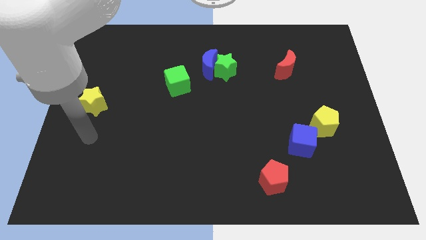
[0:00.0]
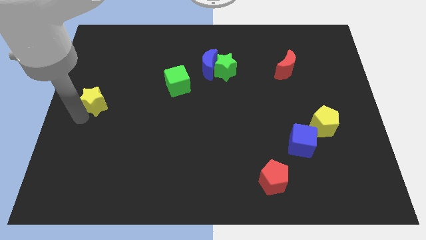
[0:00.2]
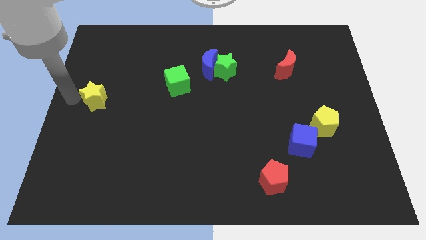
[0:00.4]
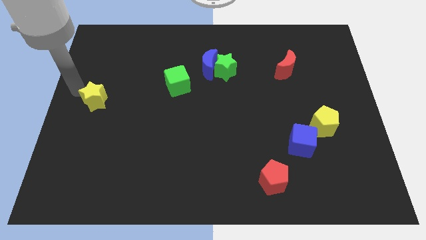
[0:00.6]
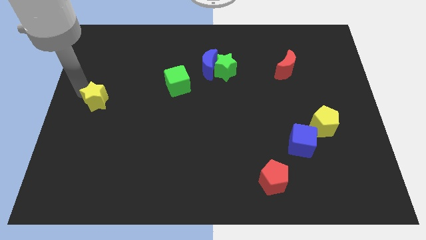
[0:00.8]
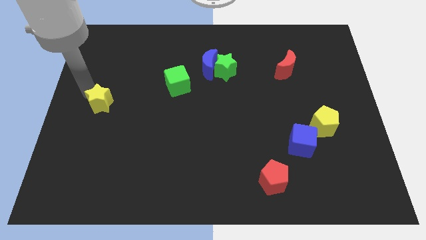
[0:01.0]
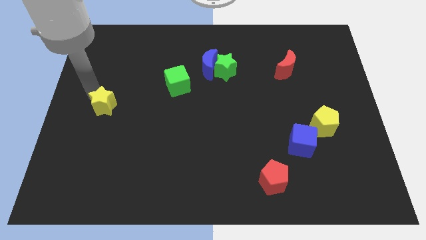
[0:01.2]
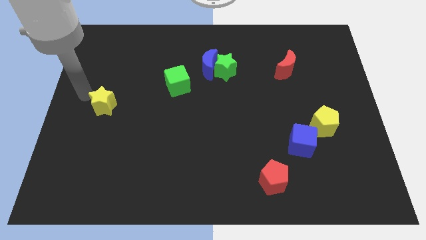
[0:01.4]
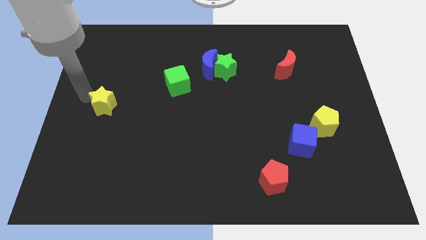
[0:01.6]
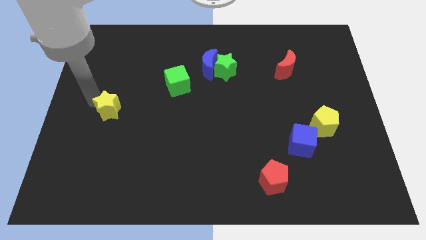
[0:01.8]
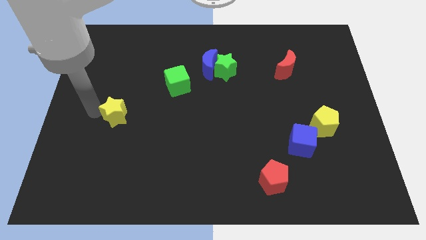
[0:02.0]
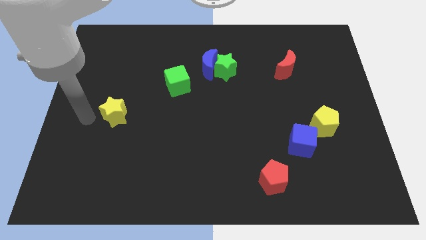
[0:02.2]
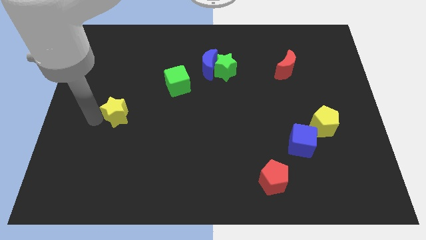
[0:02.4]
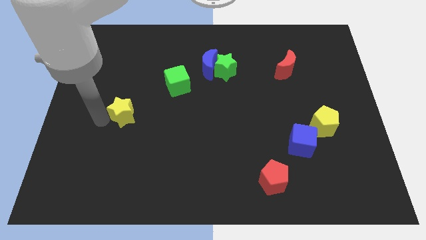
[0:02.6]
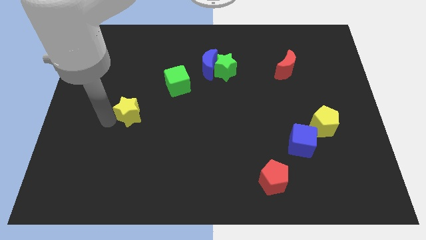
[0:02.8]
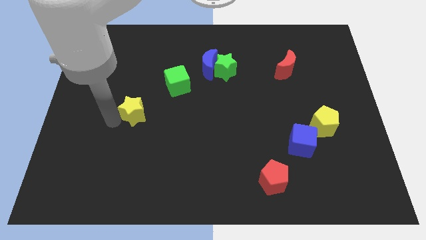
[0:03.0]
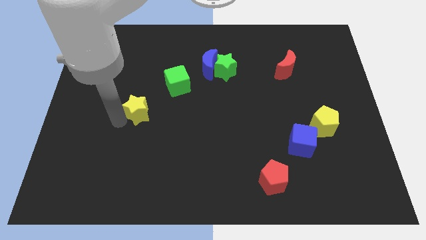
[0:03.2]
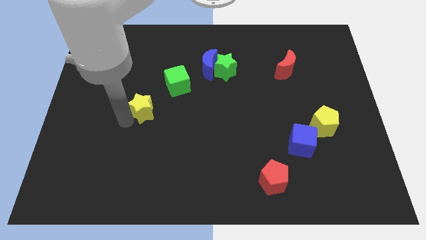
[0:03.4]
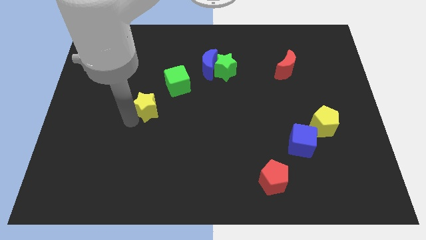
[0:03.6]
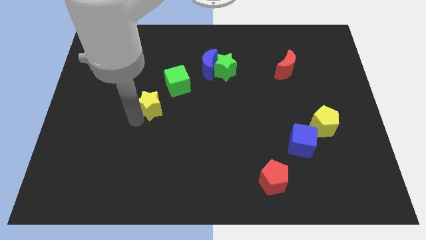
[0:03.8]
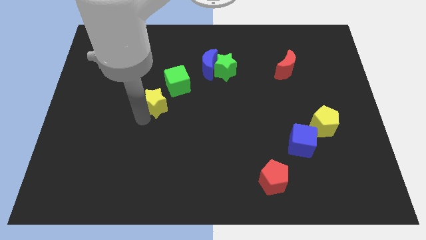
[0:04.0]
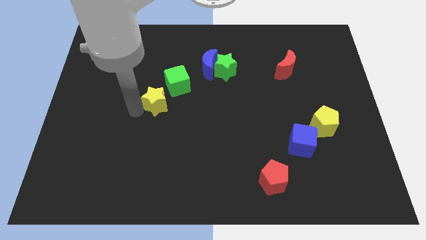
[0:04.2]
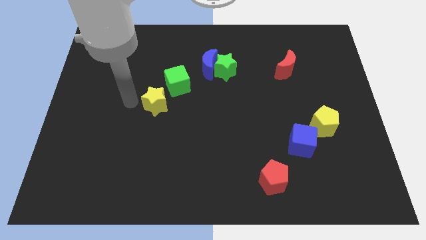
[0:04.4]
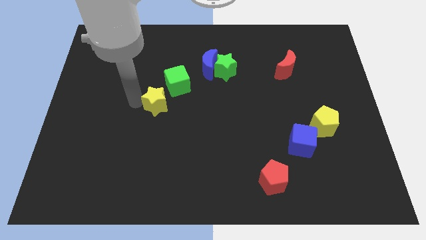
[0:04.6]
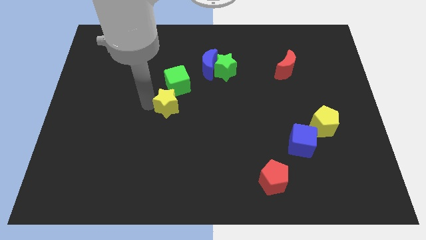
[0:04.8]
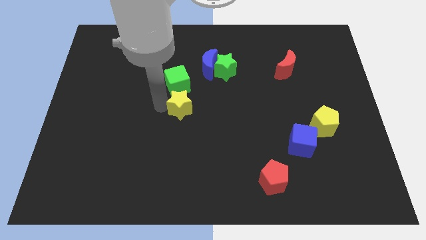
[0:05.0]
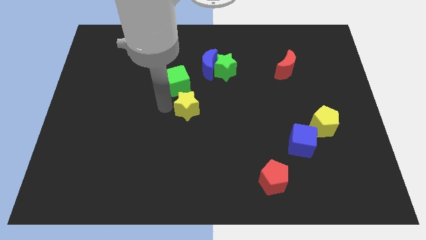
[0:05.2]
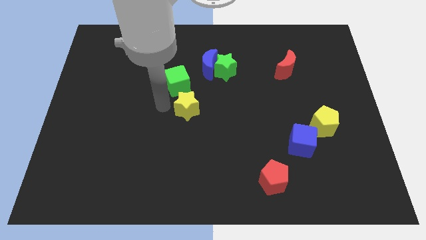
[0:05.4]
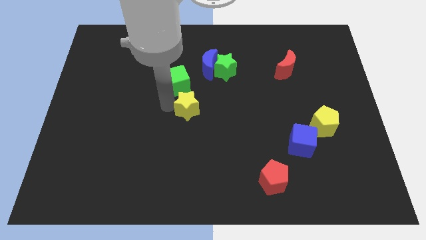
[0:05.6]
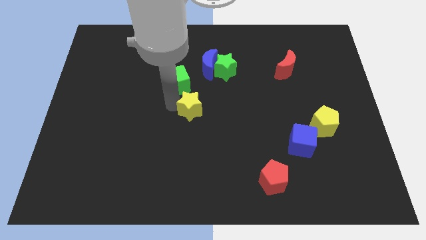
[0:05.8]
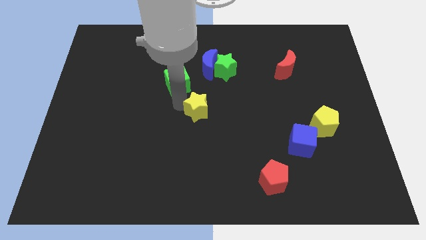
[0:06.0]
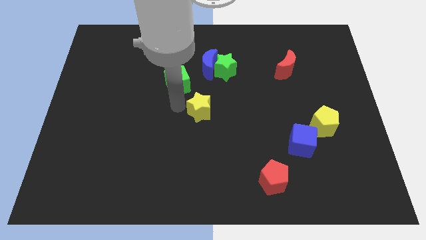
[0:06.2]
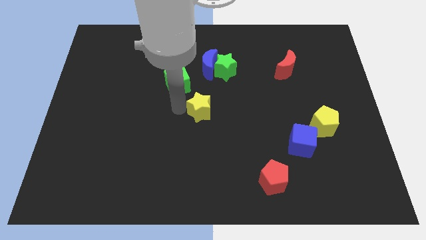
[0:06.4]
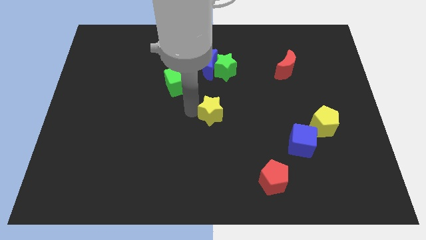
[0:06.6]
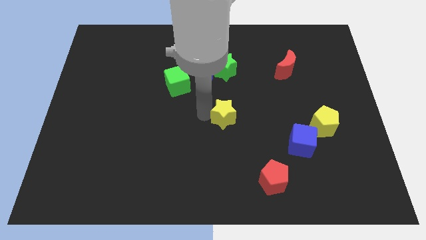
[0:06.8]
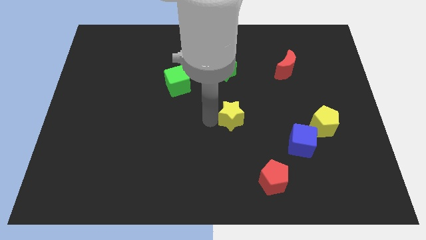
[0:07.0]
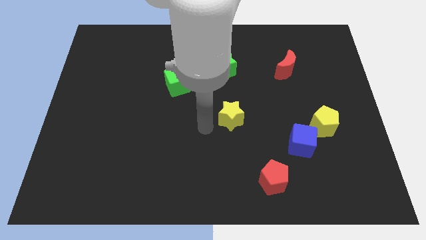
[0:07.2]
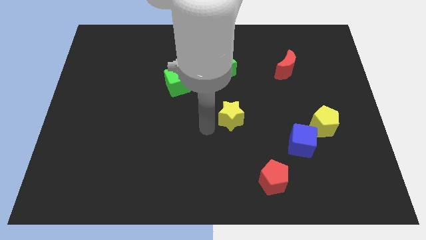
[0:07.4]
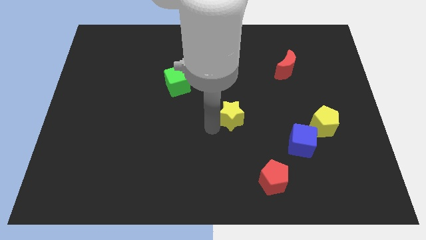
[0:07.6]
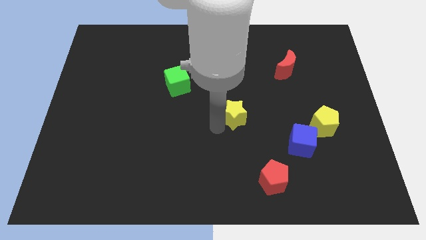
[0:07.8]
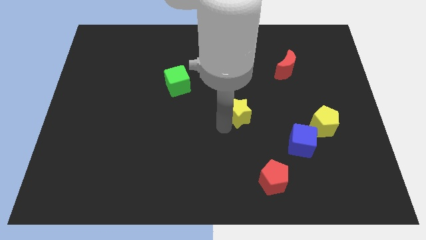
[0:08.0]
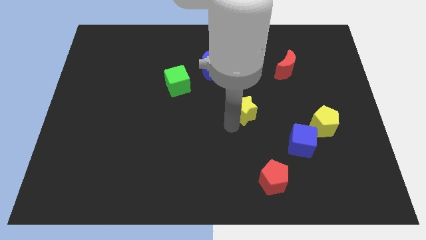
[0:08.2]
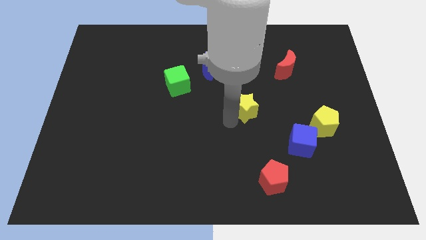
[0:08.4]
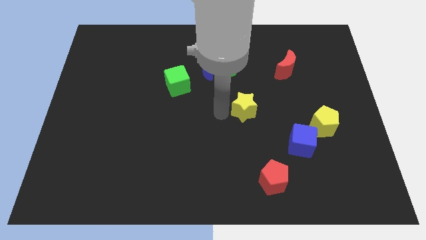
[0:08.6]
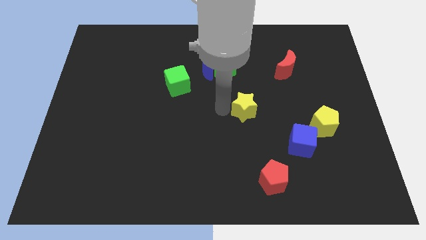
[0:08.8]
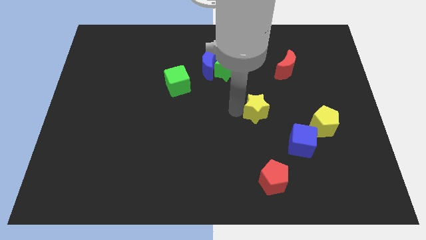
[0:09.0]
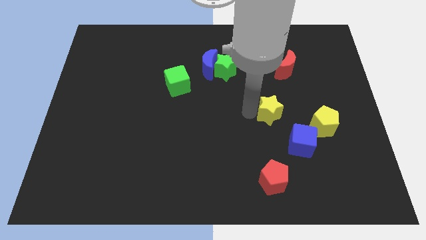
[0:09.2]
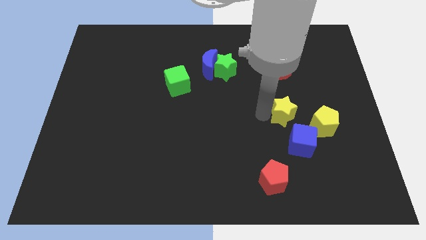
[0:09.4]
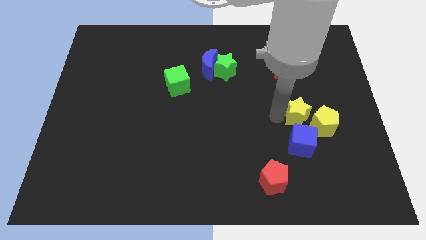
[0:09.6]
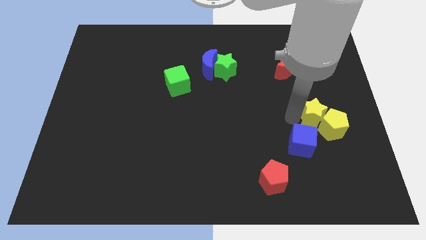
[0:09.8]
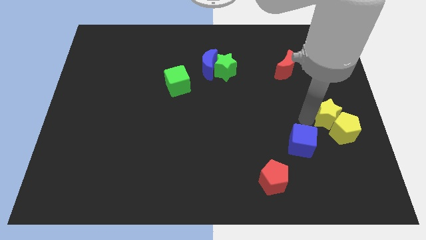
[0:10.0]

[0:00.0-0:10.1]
push the yellow star to the right side of the board

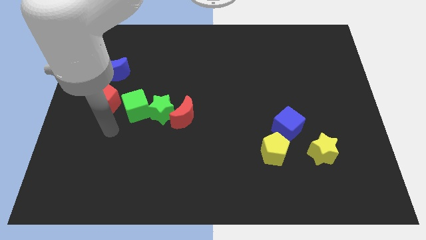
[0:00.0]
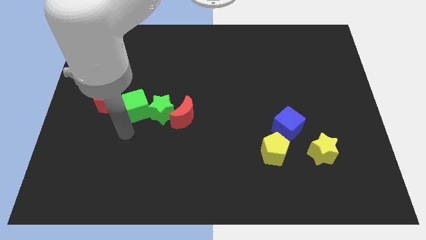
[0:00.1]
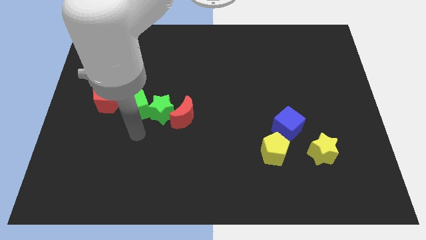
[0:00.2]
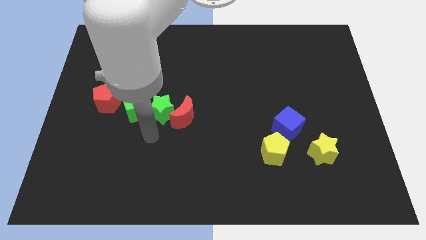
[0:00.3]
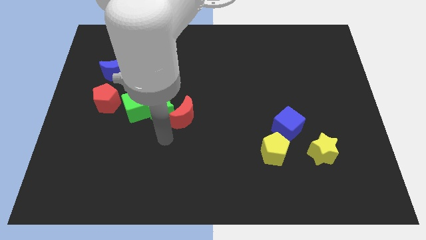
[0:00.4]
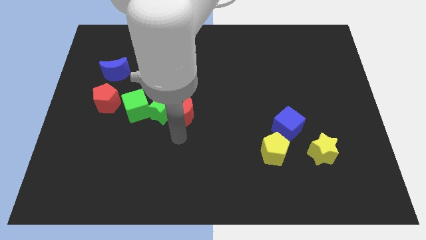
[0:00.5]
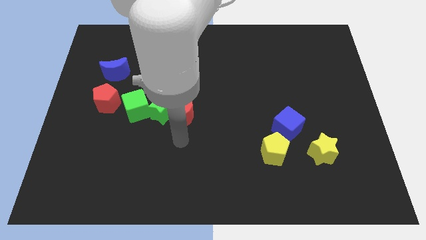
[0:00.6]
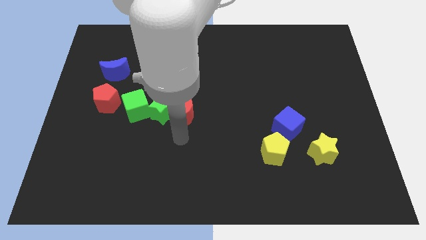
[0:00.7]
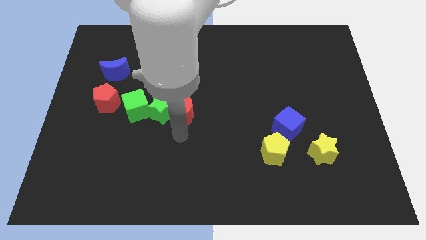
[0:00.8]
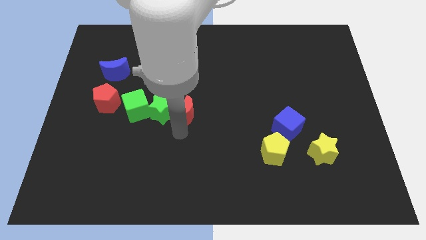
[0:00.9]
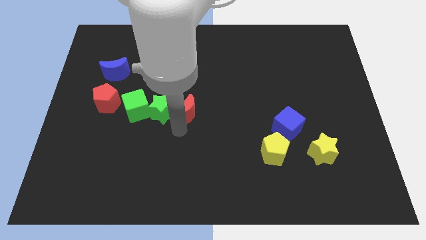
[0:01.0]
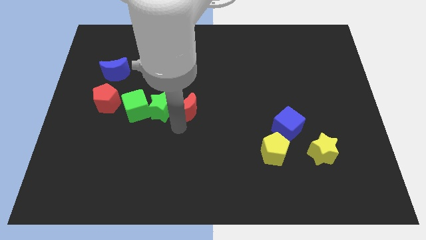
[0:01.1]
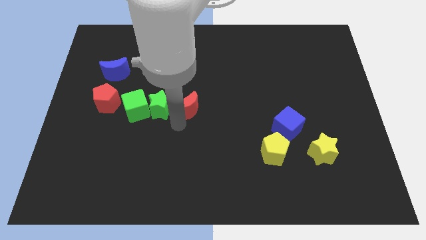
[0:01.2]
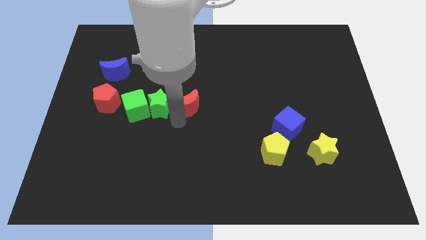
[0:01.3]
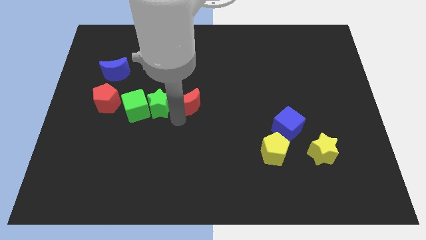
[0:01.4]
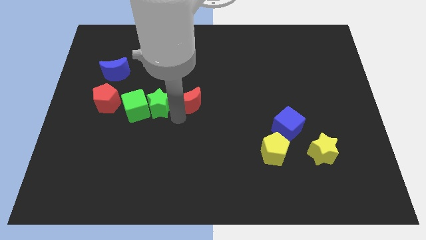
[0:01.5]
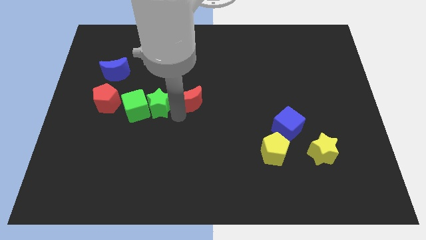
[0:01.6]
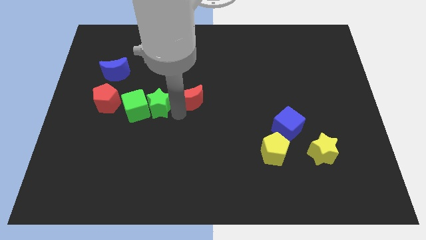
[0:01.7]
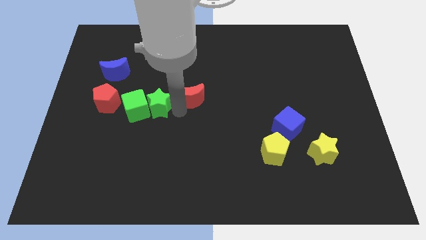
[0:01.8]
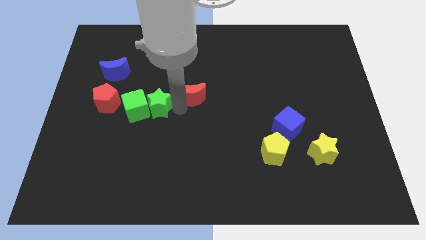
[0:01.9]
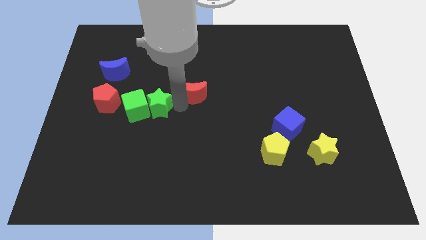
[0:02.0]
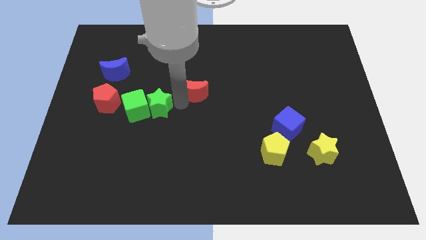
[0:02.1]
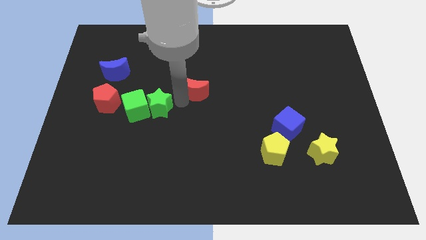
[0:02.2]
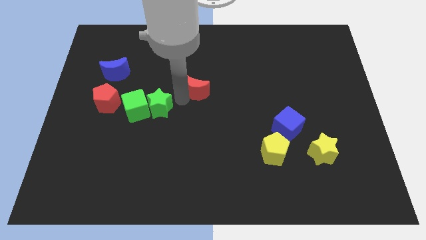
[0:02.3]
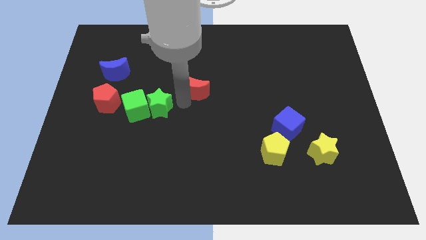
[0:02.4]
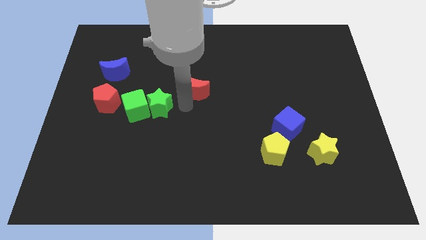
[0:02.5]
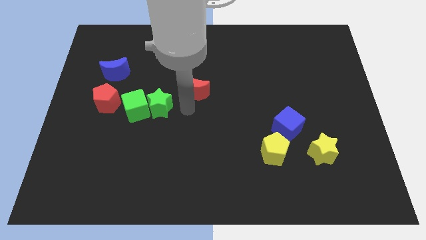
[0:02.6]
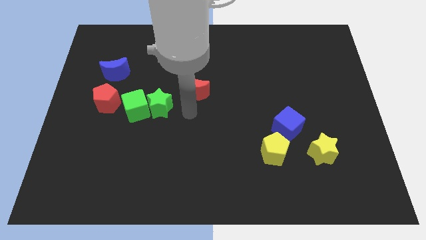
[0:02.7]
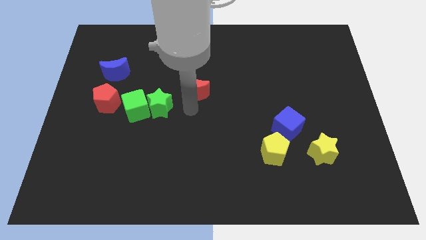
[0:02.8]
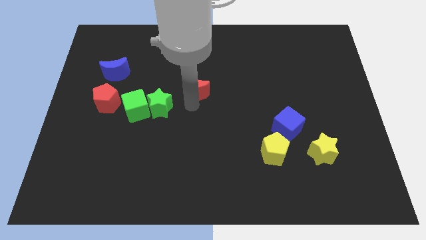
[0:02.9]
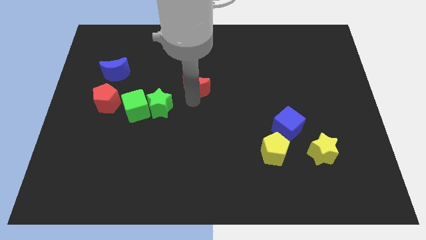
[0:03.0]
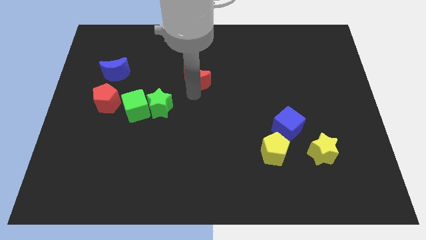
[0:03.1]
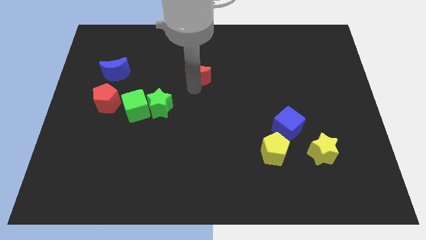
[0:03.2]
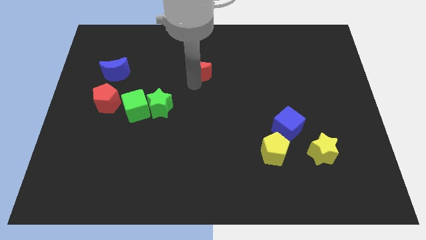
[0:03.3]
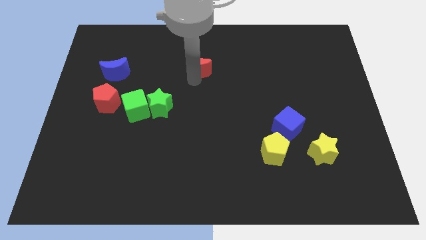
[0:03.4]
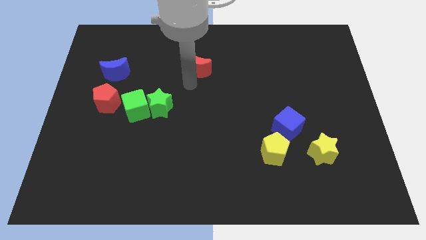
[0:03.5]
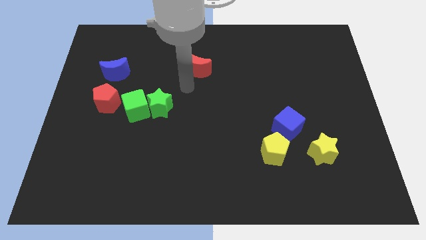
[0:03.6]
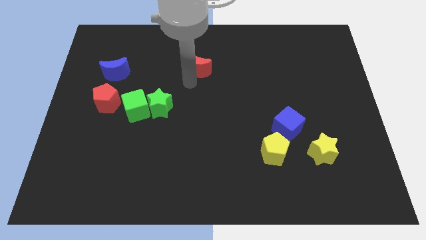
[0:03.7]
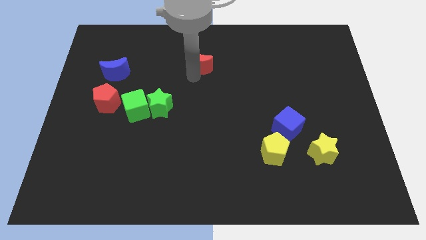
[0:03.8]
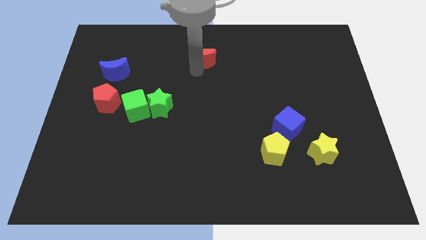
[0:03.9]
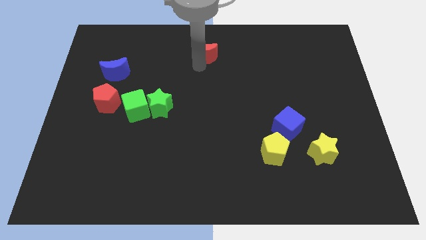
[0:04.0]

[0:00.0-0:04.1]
move the red moon to the top
